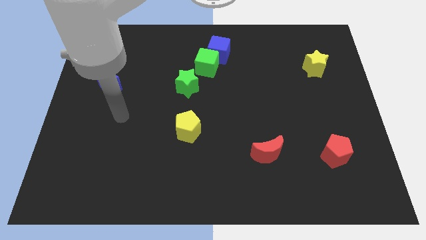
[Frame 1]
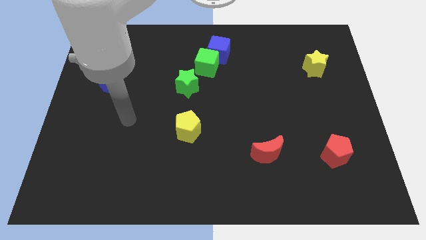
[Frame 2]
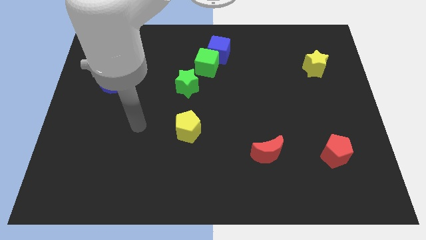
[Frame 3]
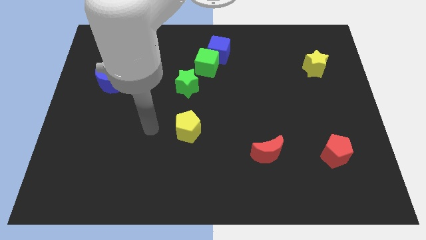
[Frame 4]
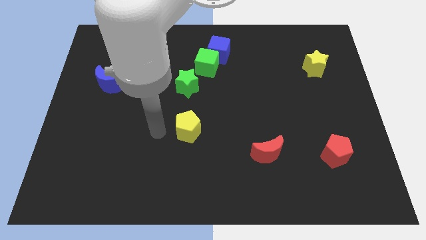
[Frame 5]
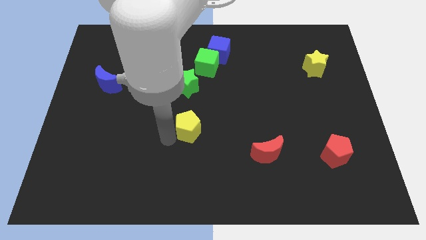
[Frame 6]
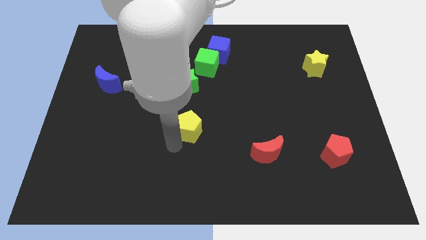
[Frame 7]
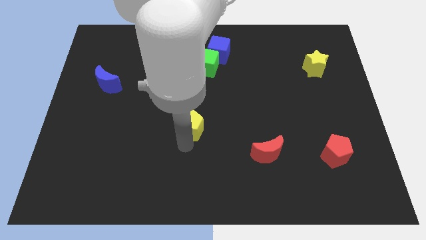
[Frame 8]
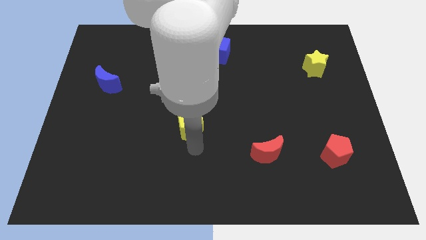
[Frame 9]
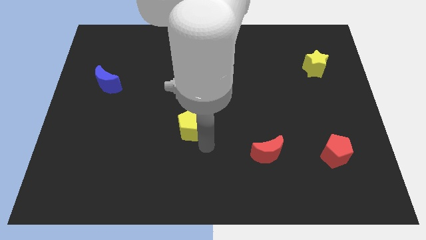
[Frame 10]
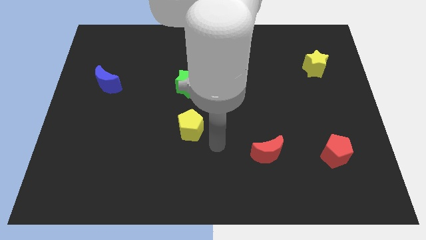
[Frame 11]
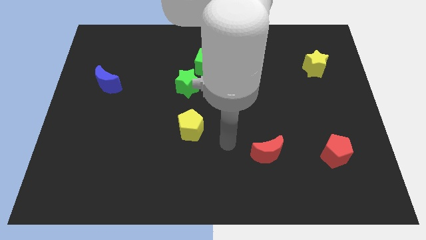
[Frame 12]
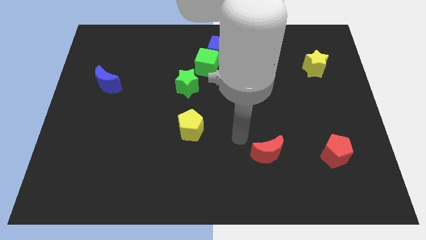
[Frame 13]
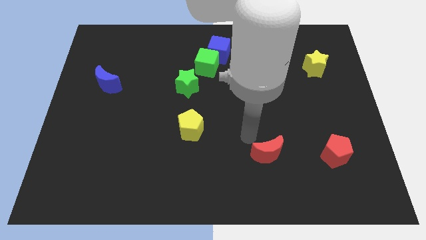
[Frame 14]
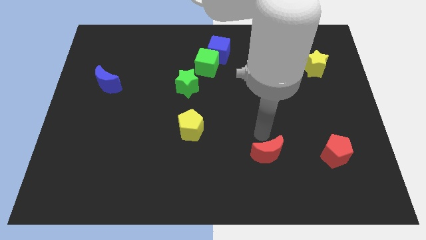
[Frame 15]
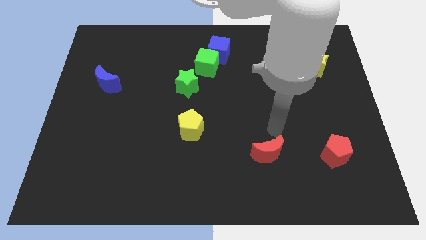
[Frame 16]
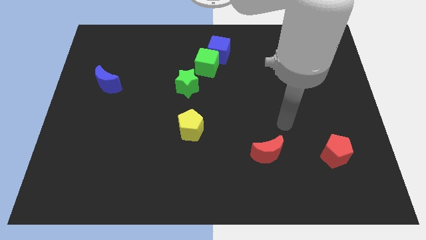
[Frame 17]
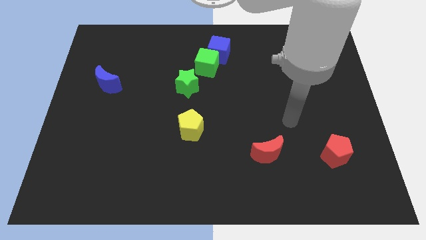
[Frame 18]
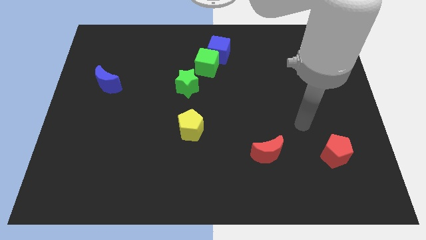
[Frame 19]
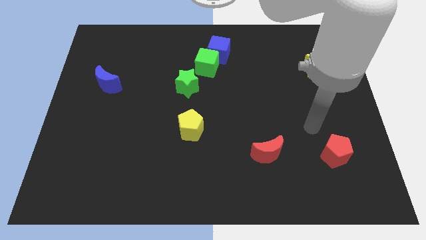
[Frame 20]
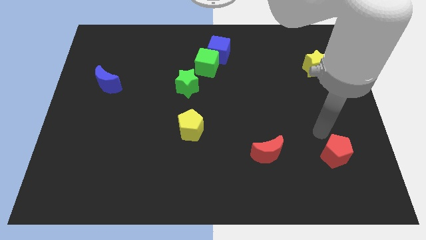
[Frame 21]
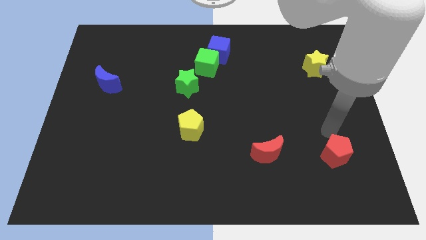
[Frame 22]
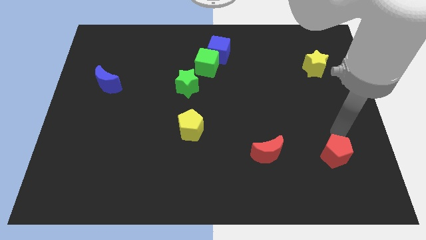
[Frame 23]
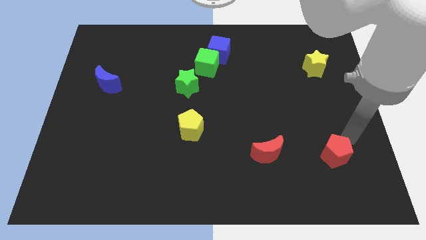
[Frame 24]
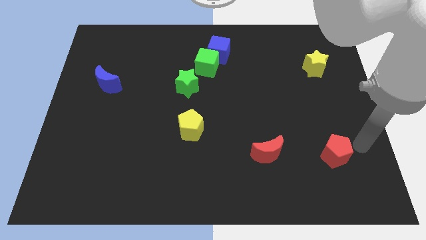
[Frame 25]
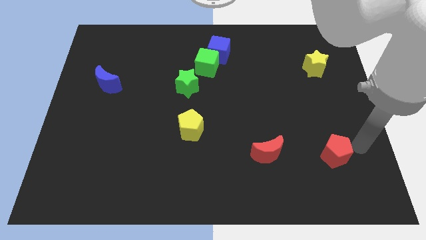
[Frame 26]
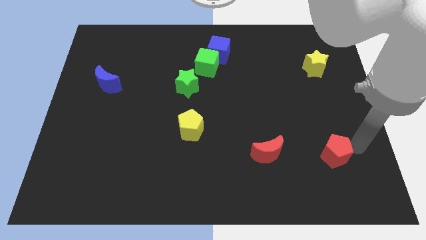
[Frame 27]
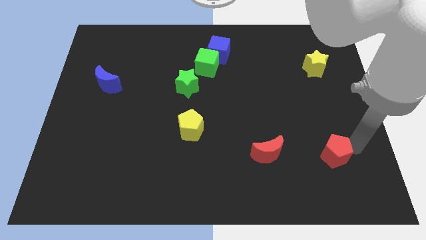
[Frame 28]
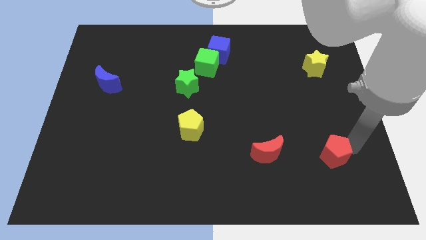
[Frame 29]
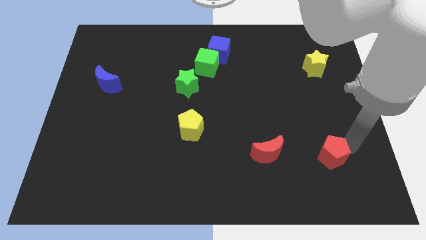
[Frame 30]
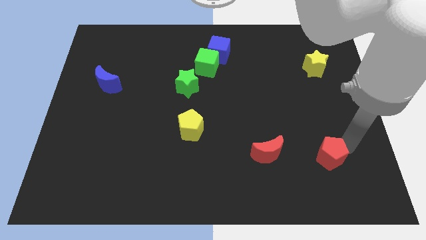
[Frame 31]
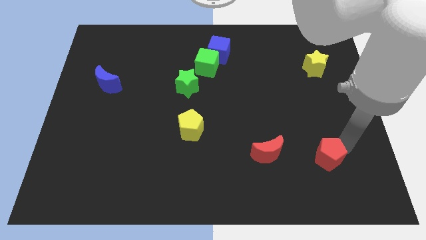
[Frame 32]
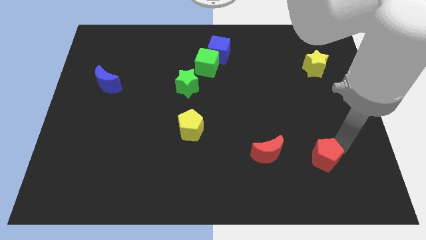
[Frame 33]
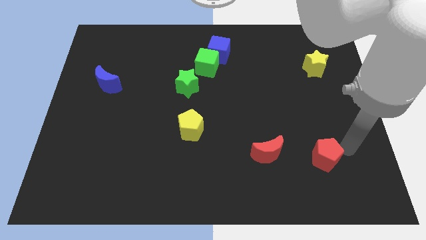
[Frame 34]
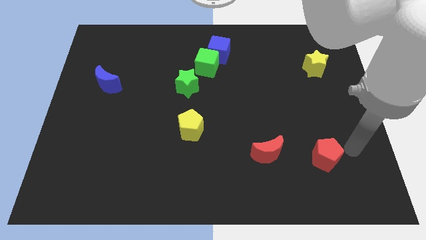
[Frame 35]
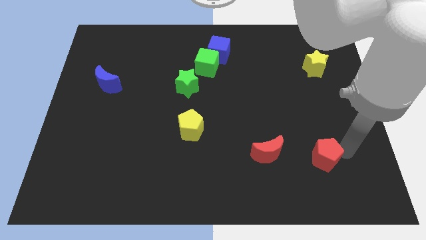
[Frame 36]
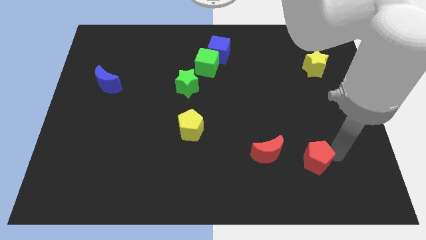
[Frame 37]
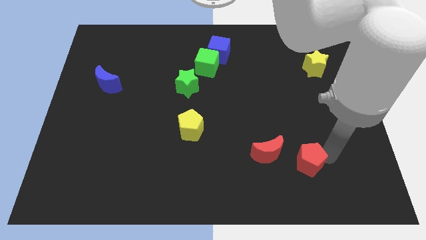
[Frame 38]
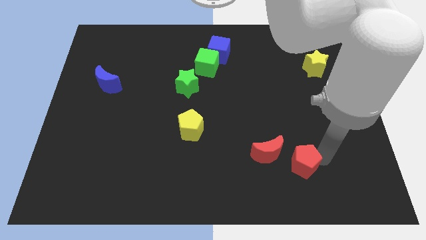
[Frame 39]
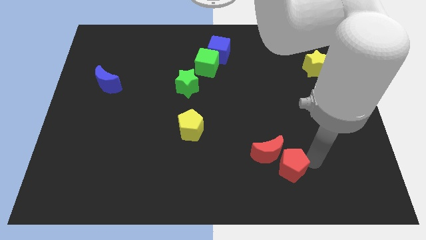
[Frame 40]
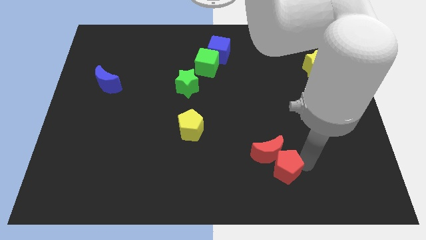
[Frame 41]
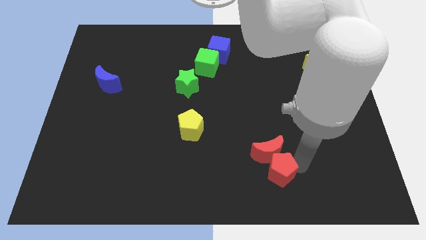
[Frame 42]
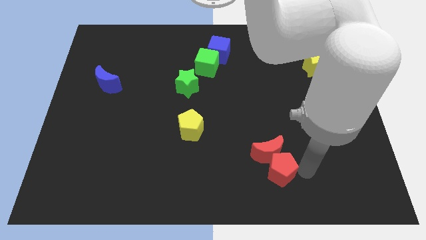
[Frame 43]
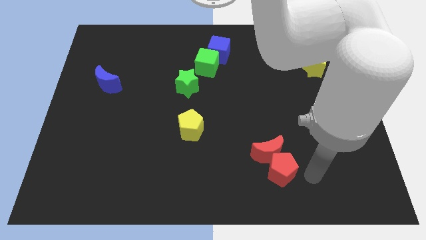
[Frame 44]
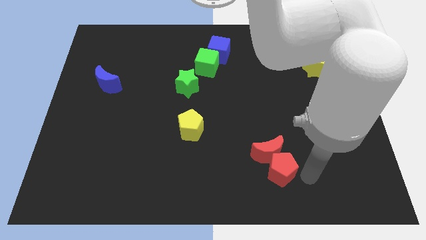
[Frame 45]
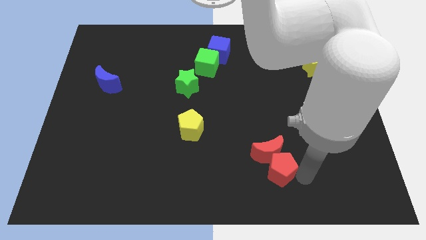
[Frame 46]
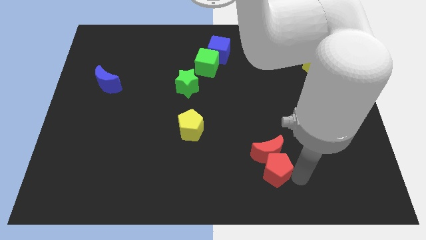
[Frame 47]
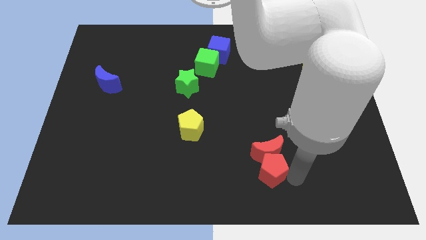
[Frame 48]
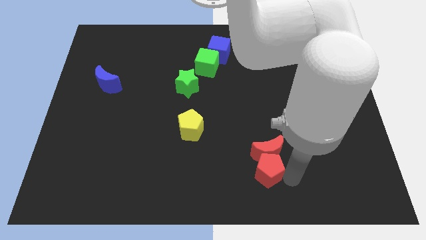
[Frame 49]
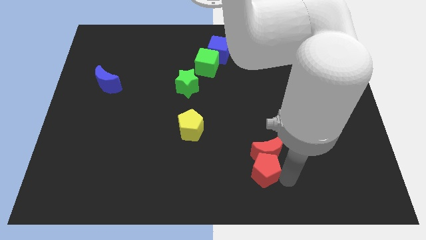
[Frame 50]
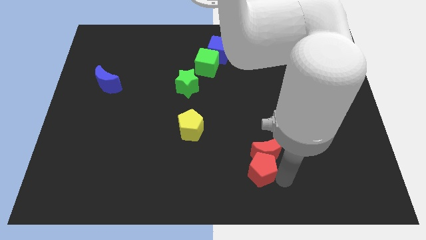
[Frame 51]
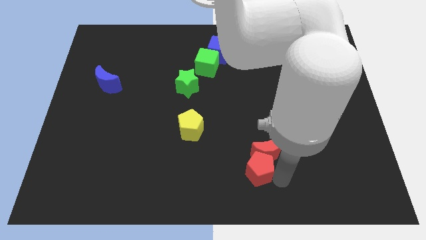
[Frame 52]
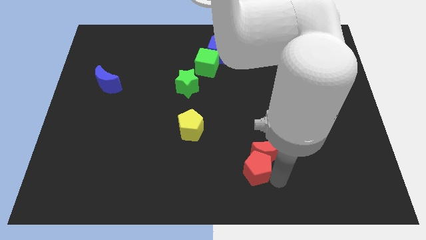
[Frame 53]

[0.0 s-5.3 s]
slide the red pentagon to the left of the red moon

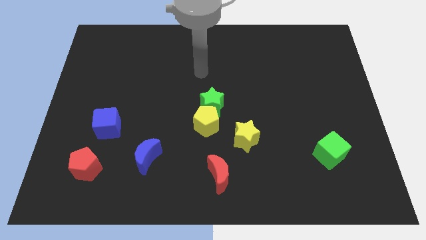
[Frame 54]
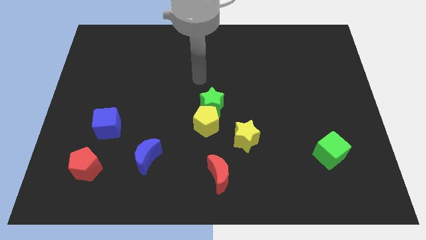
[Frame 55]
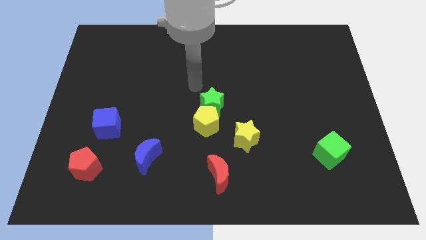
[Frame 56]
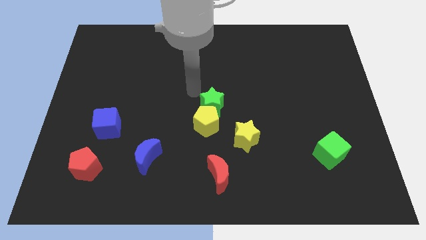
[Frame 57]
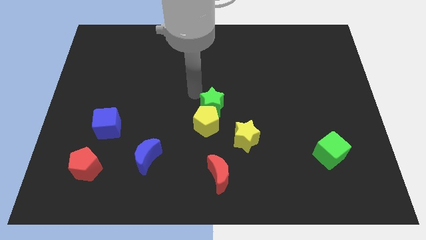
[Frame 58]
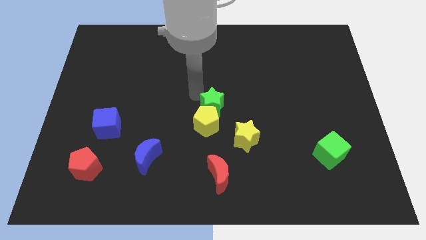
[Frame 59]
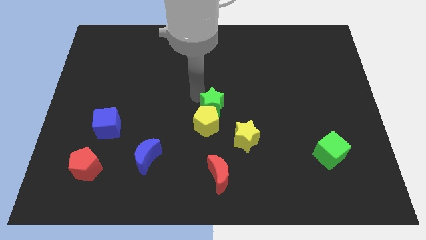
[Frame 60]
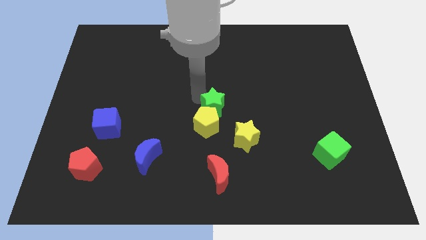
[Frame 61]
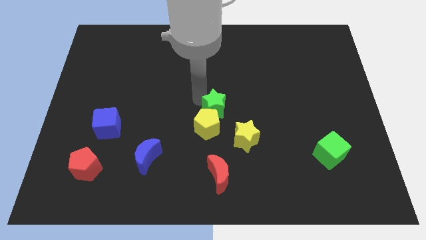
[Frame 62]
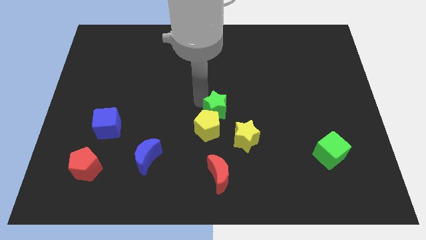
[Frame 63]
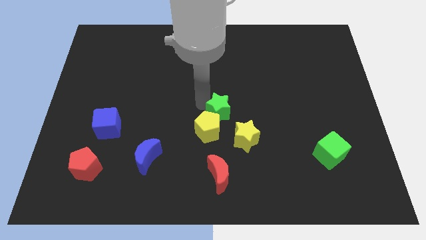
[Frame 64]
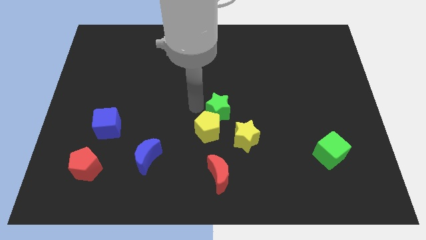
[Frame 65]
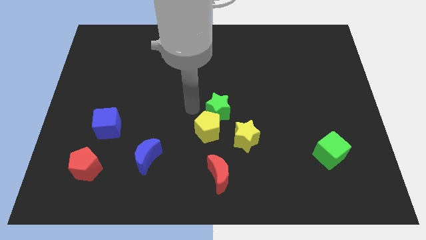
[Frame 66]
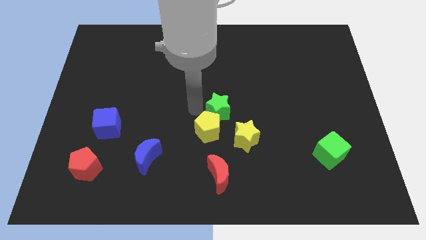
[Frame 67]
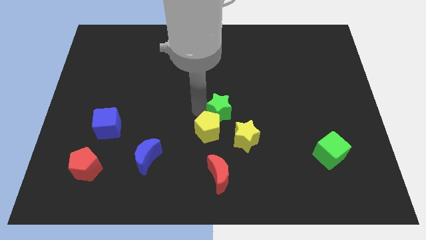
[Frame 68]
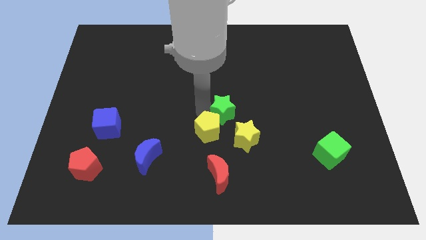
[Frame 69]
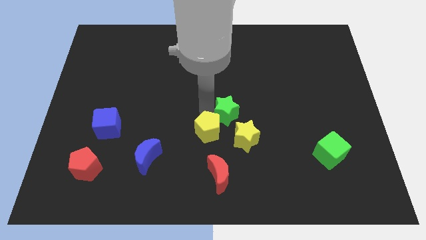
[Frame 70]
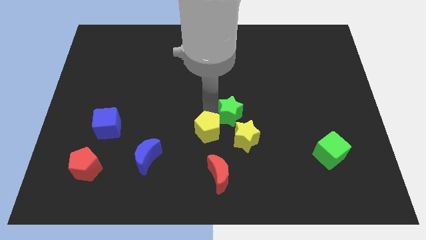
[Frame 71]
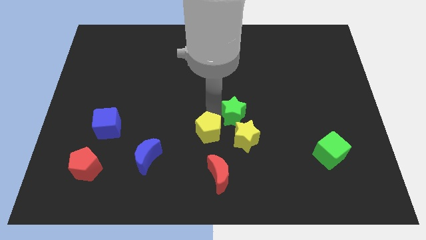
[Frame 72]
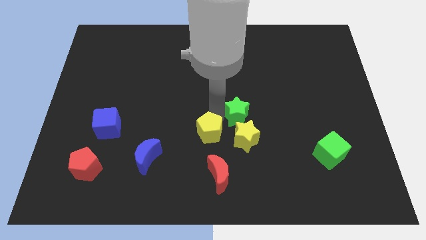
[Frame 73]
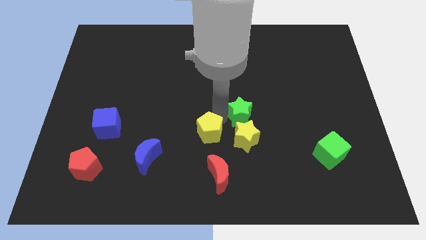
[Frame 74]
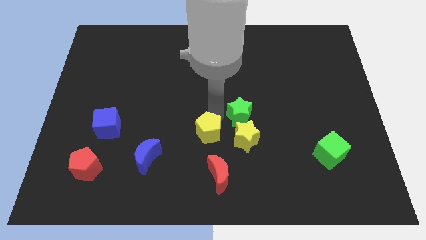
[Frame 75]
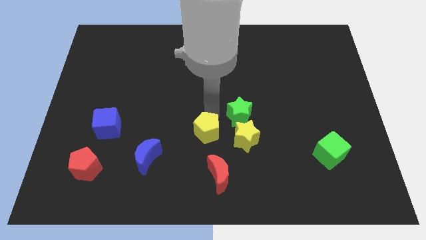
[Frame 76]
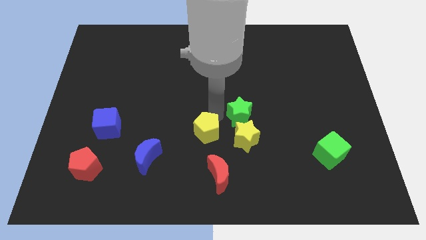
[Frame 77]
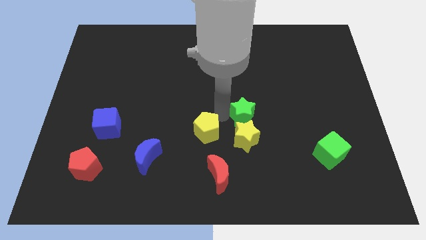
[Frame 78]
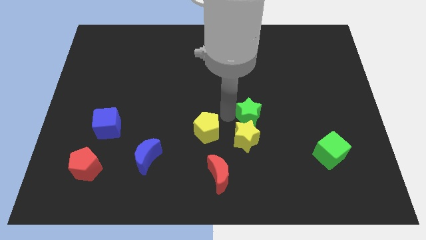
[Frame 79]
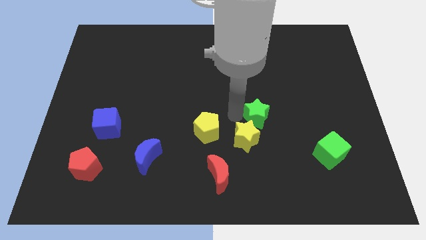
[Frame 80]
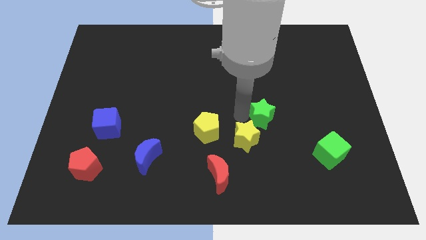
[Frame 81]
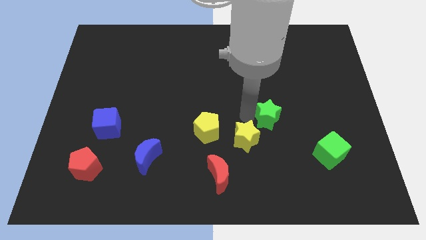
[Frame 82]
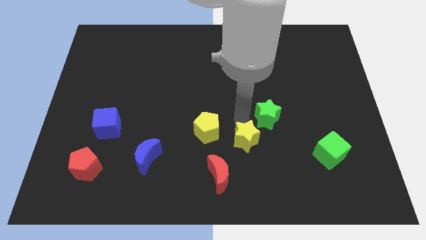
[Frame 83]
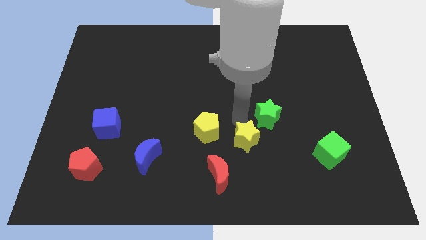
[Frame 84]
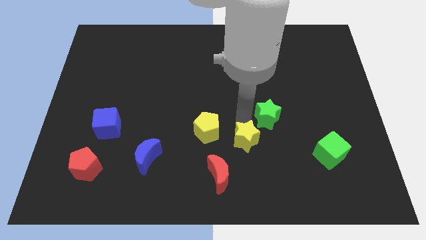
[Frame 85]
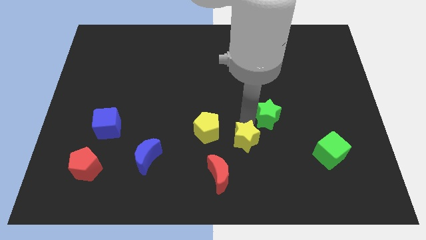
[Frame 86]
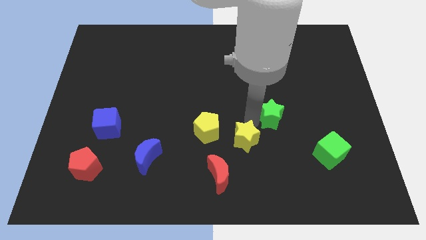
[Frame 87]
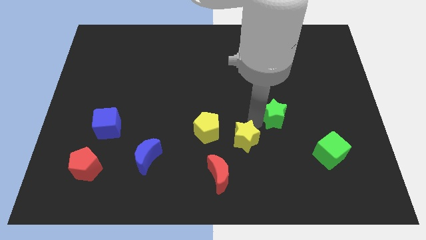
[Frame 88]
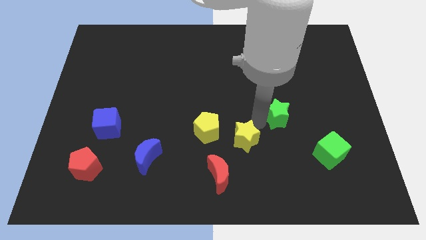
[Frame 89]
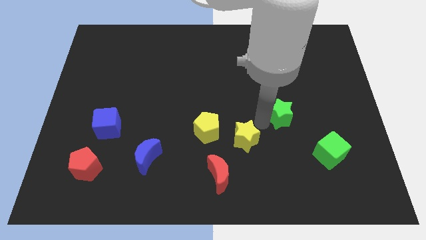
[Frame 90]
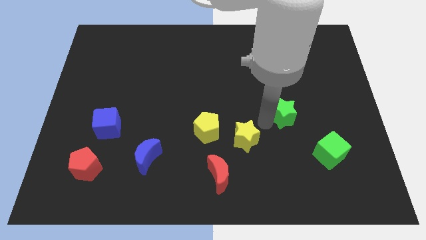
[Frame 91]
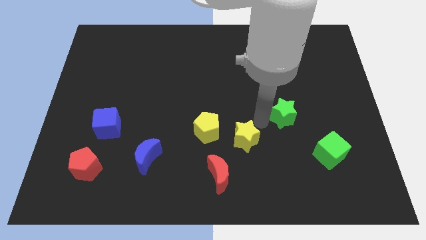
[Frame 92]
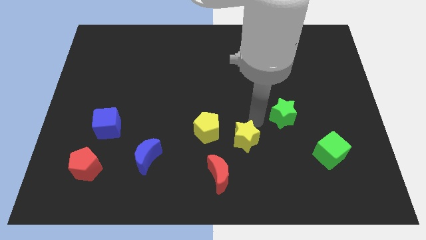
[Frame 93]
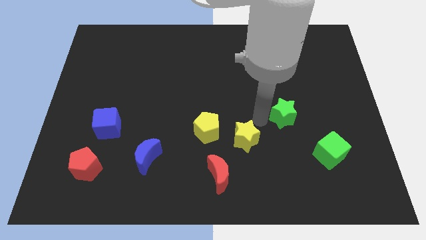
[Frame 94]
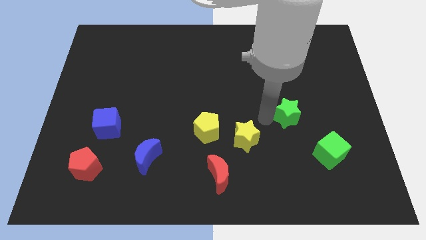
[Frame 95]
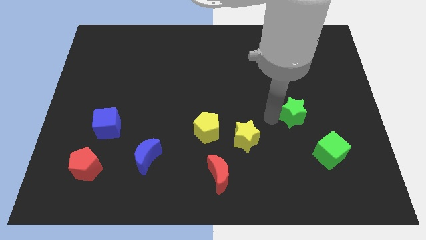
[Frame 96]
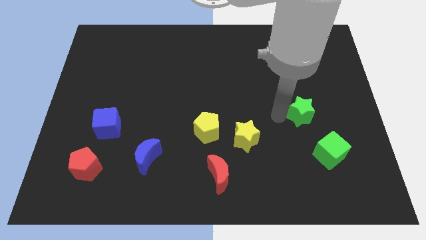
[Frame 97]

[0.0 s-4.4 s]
push the green star to the top of the green cube
